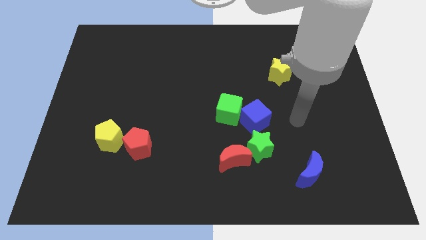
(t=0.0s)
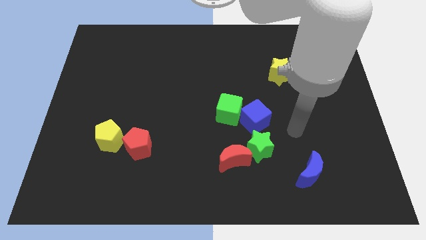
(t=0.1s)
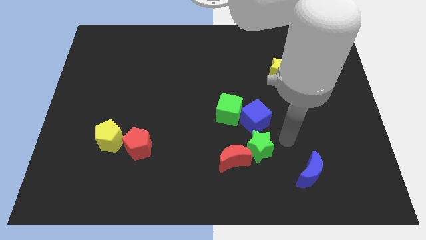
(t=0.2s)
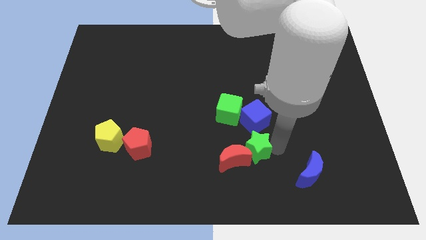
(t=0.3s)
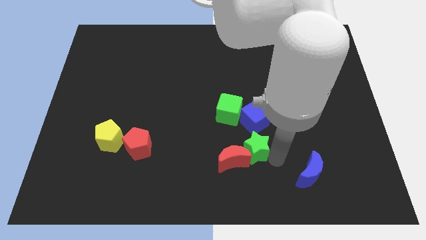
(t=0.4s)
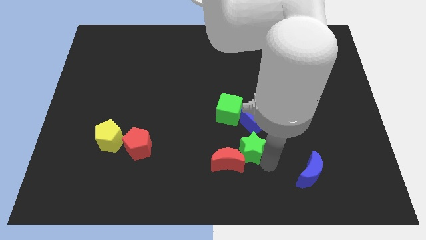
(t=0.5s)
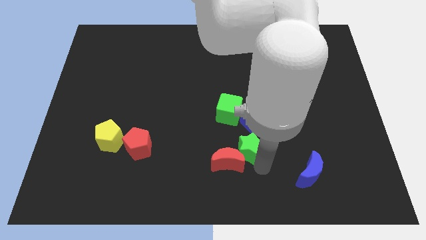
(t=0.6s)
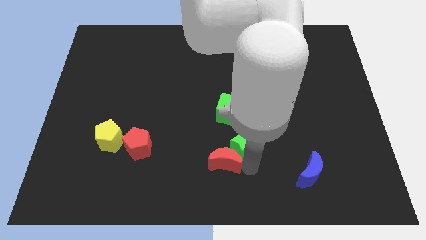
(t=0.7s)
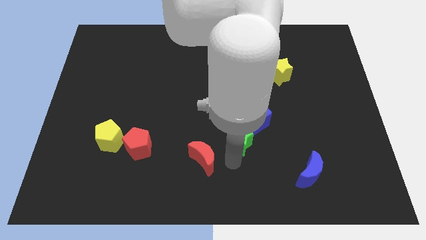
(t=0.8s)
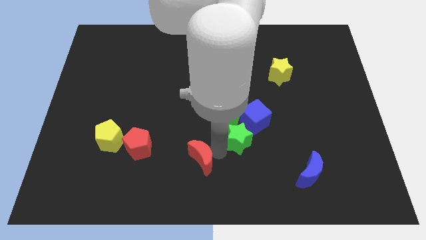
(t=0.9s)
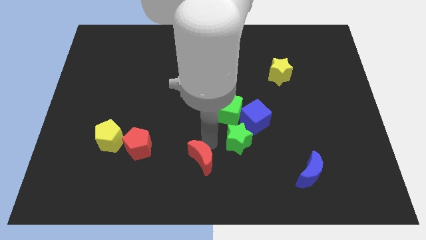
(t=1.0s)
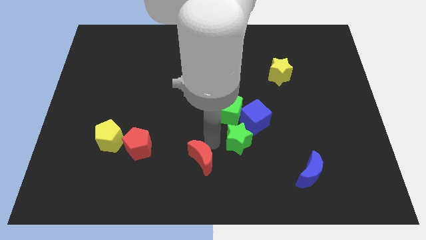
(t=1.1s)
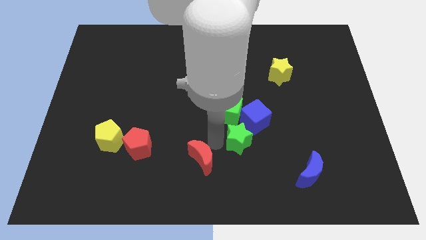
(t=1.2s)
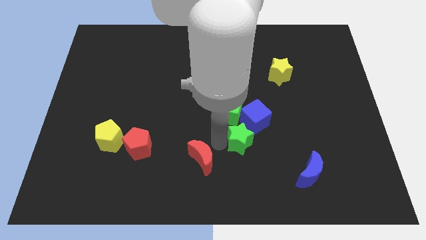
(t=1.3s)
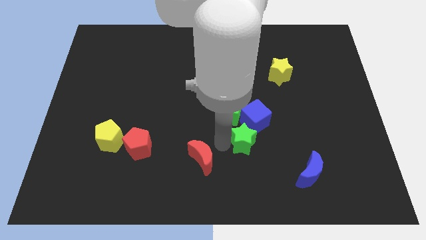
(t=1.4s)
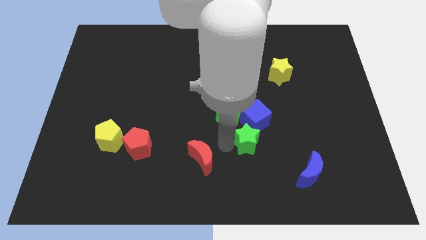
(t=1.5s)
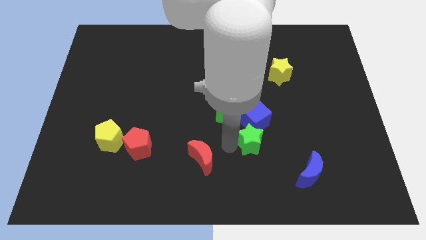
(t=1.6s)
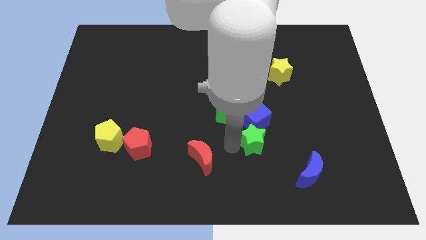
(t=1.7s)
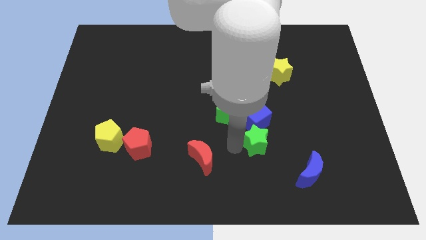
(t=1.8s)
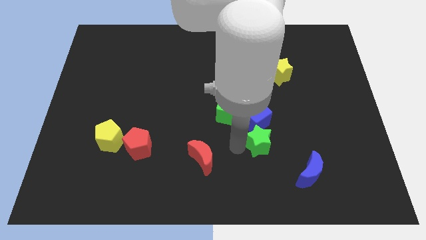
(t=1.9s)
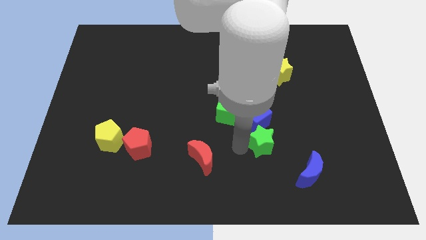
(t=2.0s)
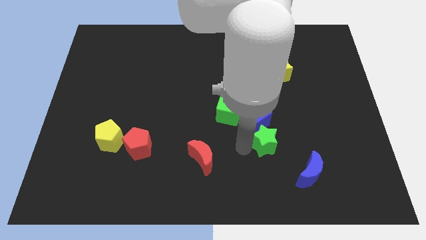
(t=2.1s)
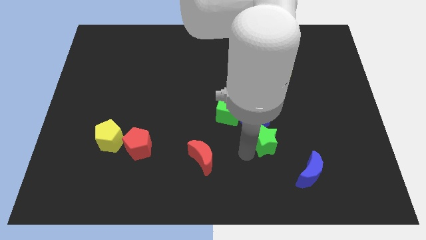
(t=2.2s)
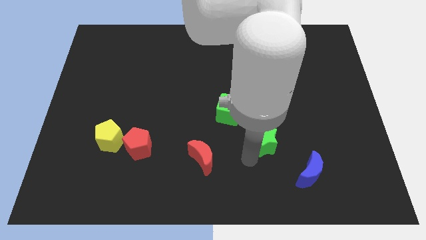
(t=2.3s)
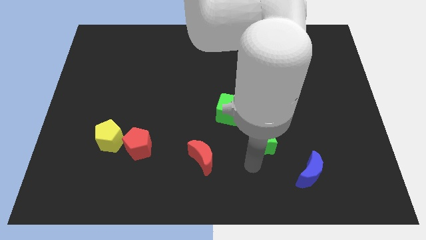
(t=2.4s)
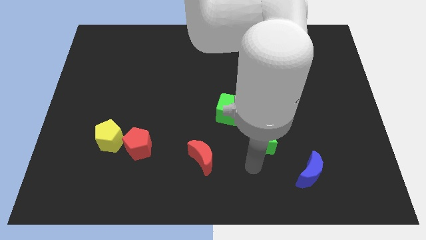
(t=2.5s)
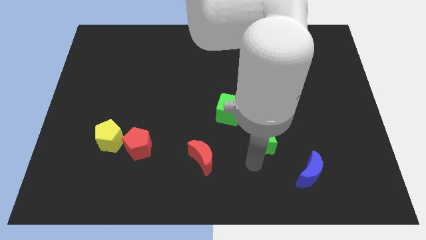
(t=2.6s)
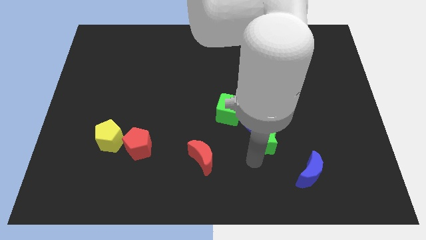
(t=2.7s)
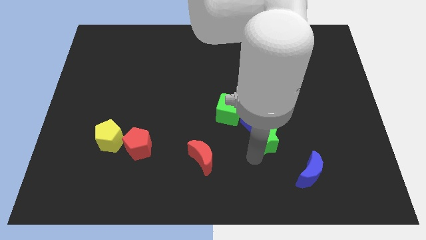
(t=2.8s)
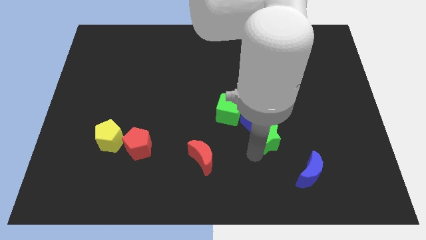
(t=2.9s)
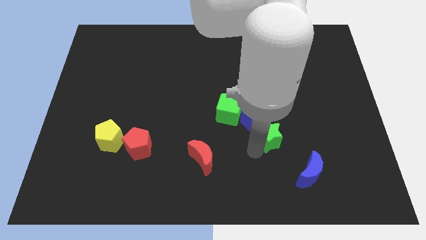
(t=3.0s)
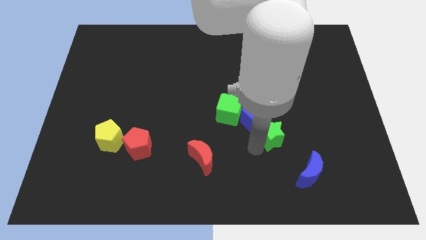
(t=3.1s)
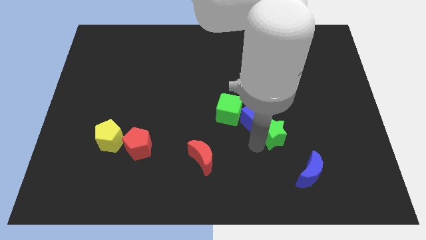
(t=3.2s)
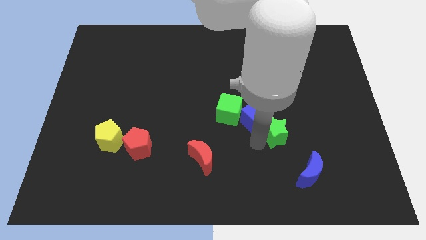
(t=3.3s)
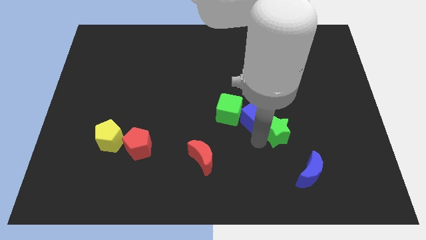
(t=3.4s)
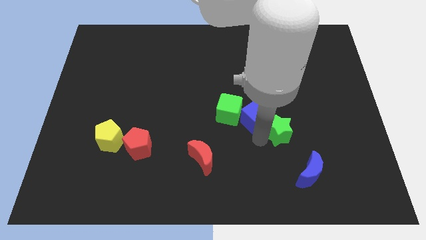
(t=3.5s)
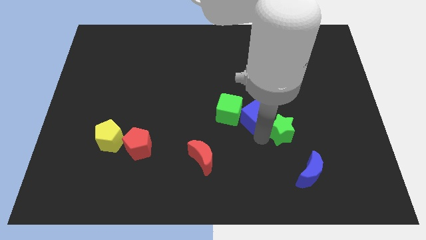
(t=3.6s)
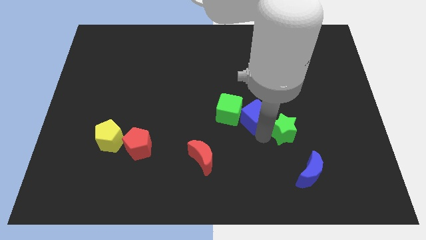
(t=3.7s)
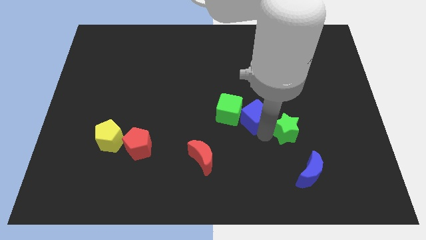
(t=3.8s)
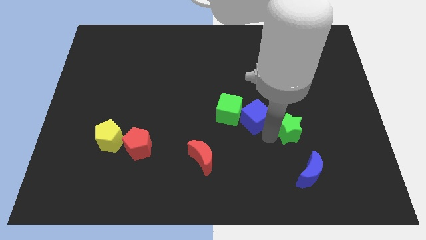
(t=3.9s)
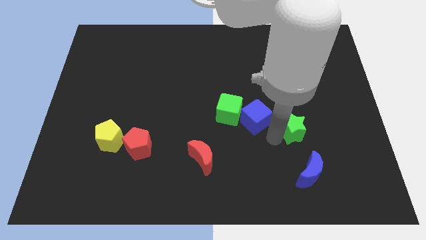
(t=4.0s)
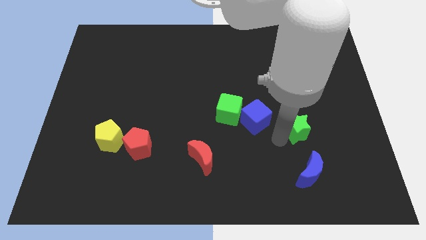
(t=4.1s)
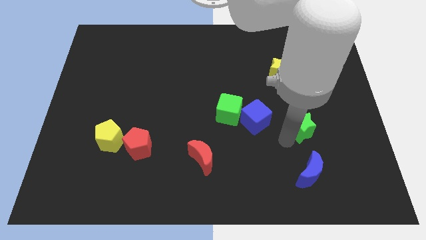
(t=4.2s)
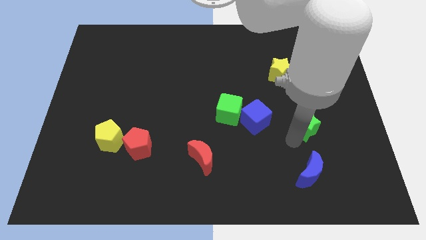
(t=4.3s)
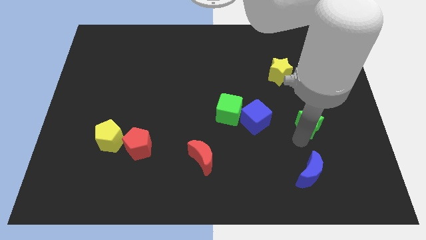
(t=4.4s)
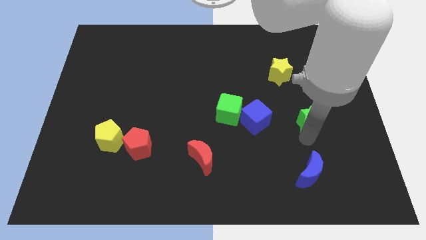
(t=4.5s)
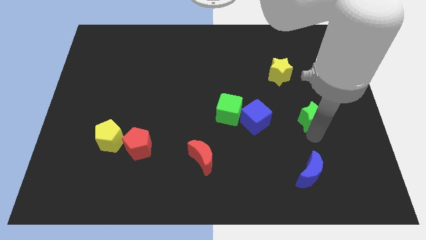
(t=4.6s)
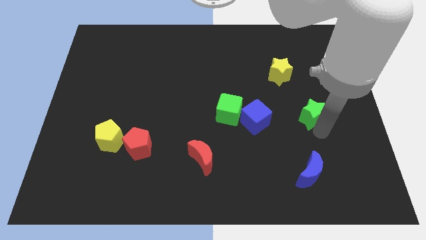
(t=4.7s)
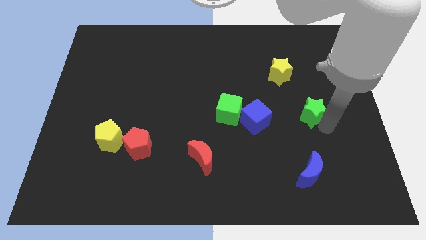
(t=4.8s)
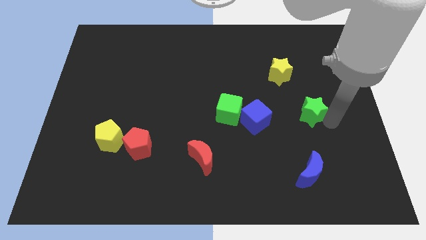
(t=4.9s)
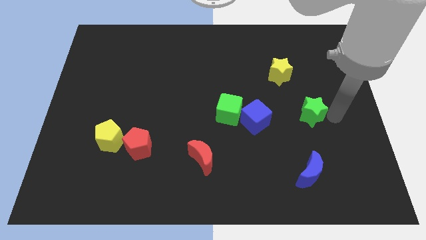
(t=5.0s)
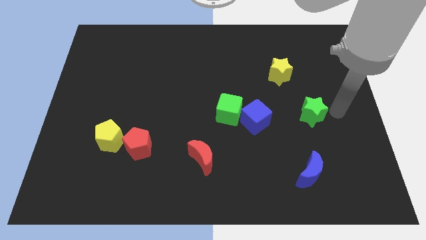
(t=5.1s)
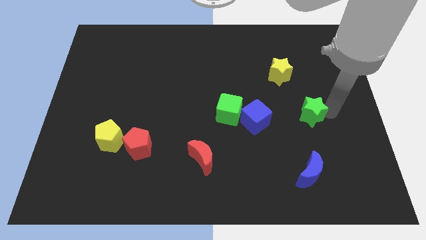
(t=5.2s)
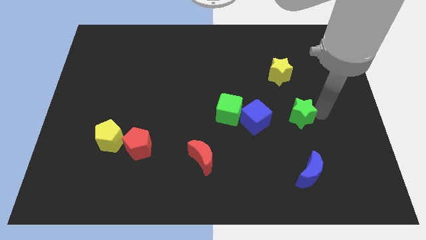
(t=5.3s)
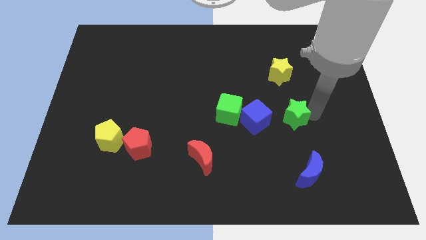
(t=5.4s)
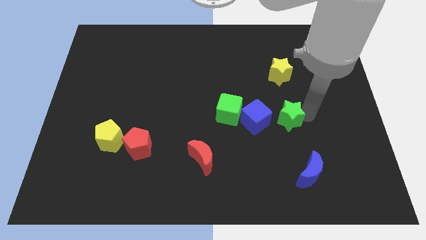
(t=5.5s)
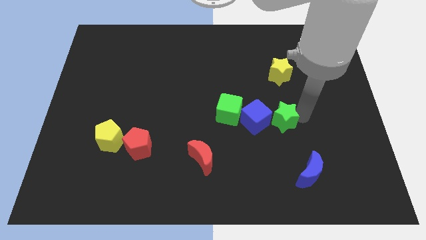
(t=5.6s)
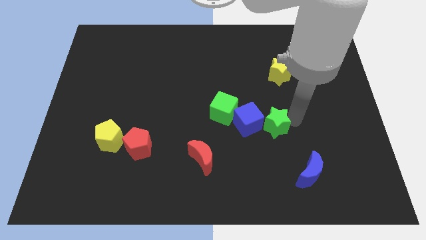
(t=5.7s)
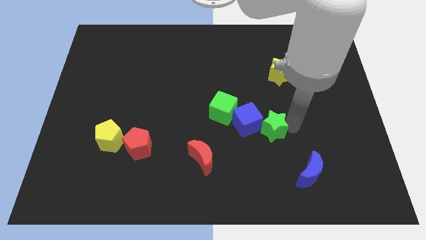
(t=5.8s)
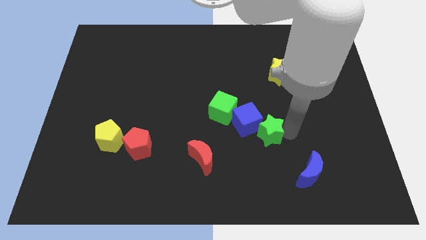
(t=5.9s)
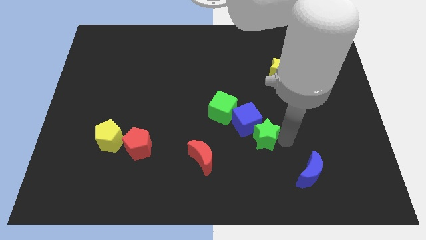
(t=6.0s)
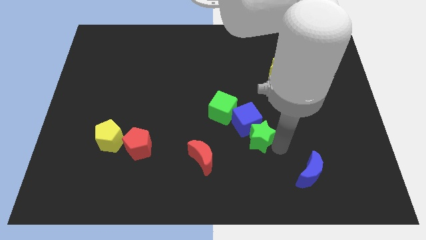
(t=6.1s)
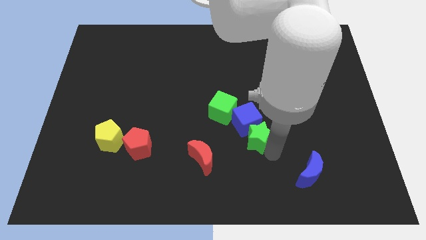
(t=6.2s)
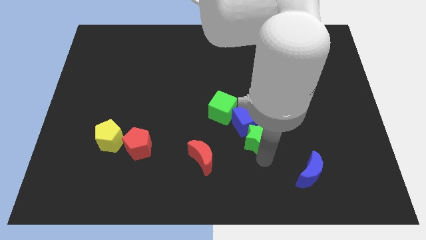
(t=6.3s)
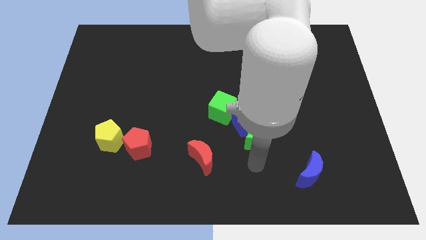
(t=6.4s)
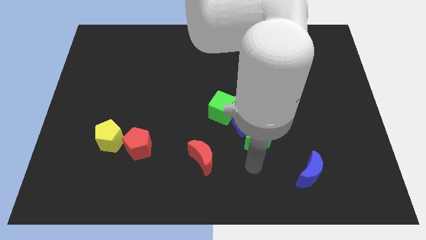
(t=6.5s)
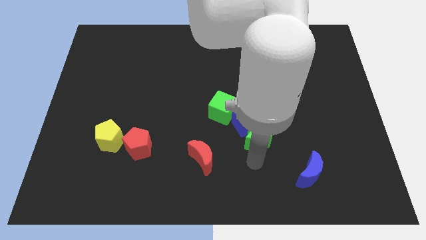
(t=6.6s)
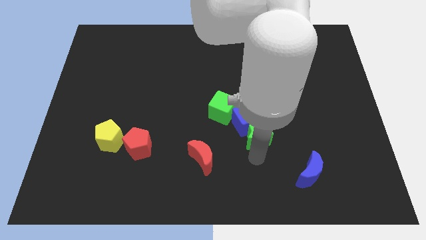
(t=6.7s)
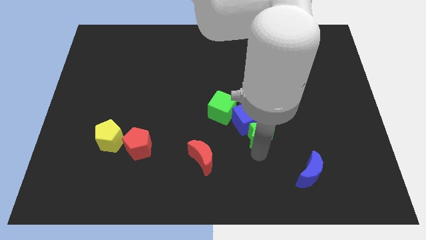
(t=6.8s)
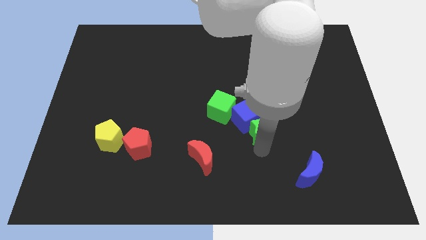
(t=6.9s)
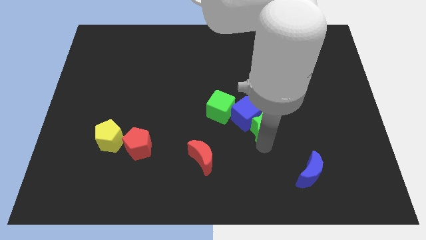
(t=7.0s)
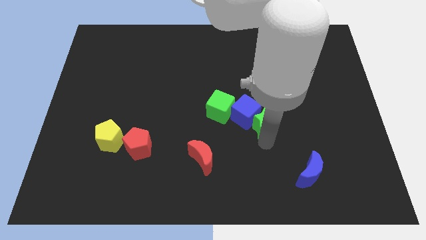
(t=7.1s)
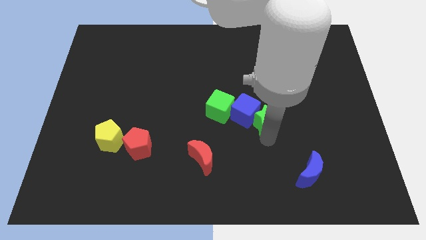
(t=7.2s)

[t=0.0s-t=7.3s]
slightly slide the green star upwards

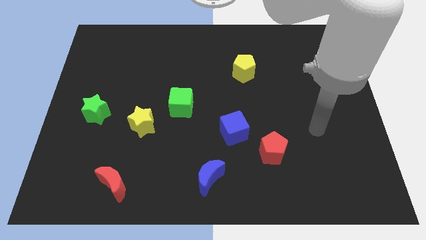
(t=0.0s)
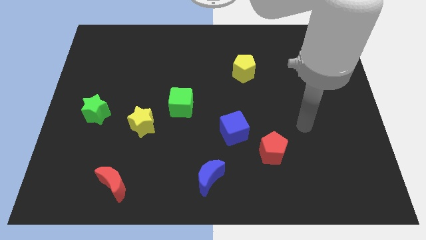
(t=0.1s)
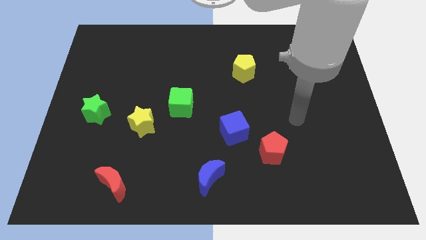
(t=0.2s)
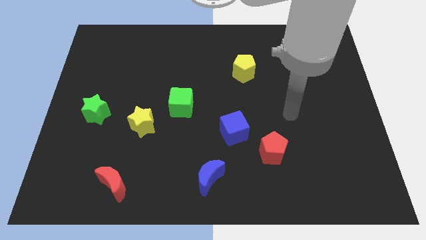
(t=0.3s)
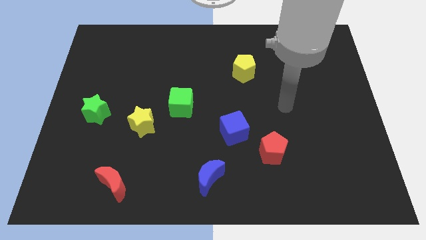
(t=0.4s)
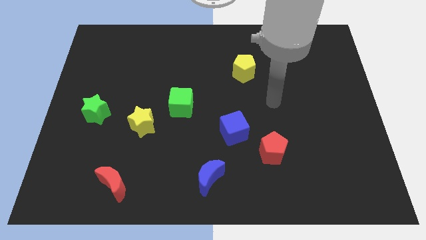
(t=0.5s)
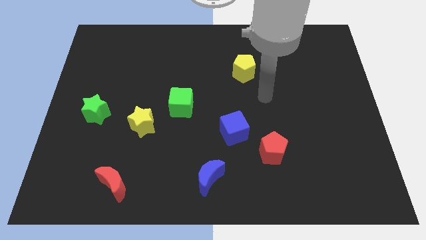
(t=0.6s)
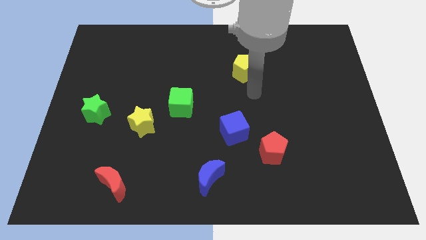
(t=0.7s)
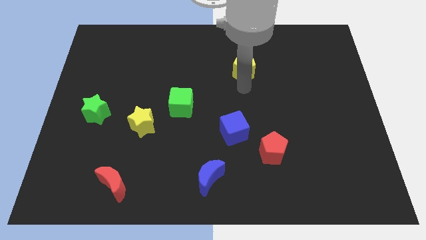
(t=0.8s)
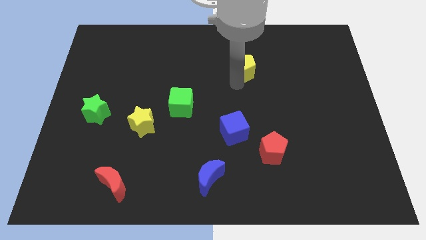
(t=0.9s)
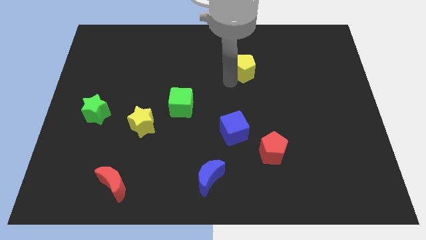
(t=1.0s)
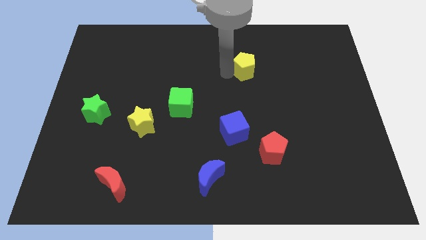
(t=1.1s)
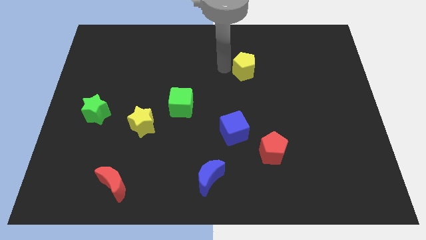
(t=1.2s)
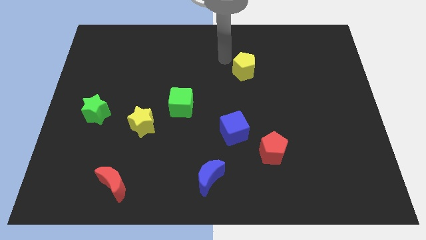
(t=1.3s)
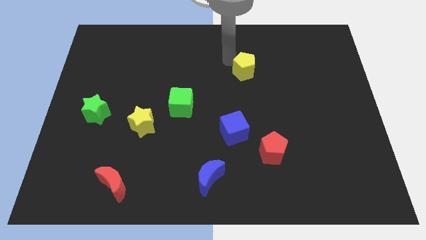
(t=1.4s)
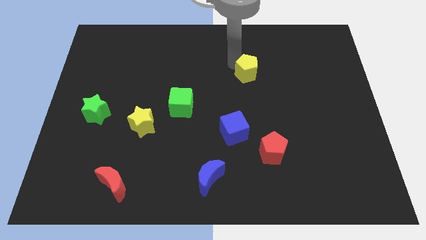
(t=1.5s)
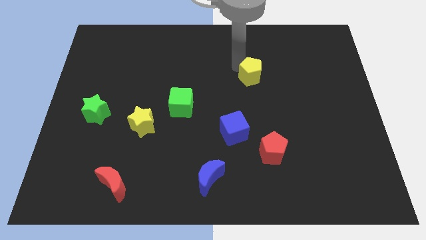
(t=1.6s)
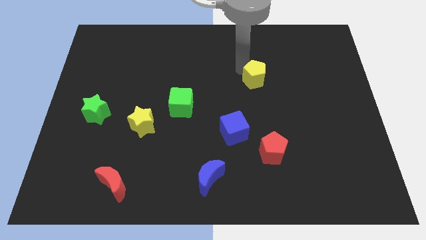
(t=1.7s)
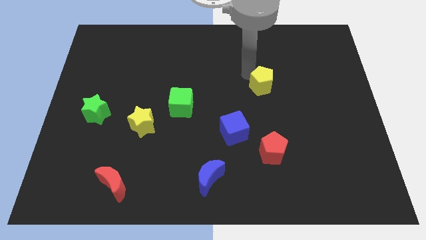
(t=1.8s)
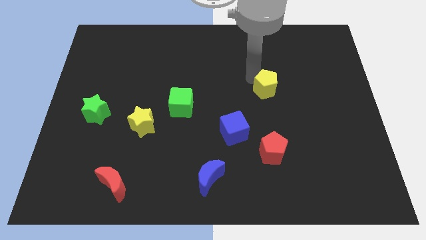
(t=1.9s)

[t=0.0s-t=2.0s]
slightly push the yellow pentagon down and right diagonally
